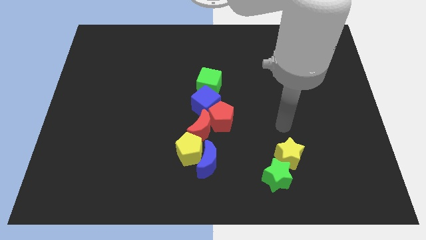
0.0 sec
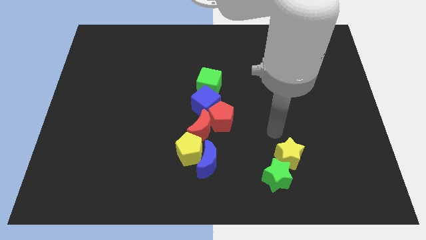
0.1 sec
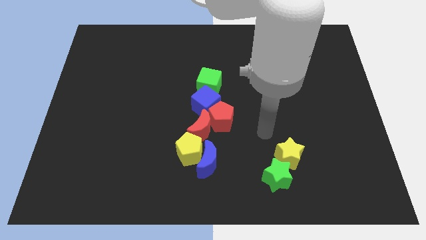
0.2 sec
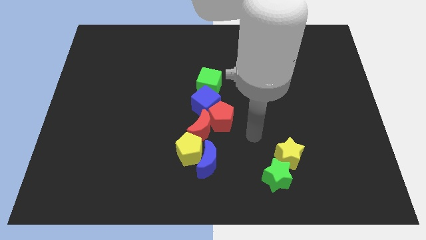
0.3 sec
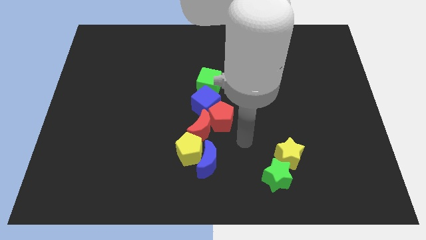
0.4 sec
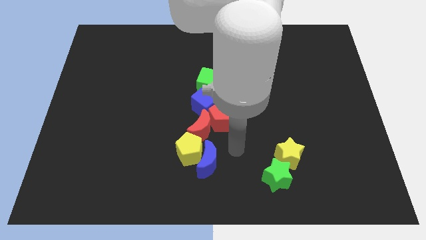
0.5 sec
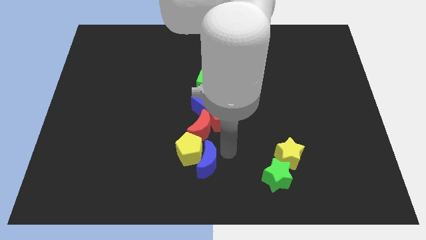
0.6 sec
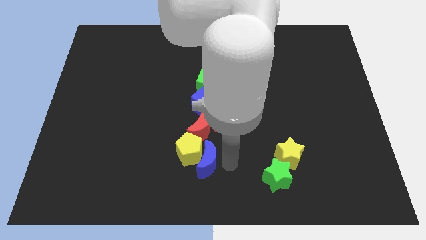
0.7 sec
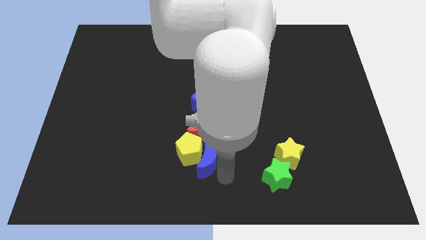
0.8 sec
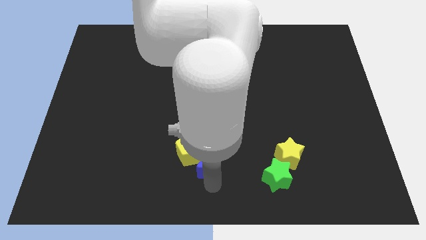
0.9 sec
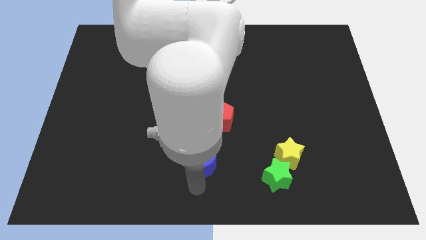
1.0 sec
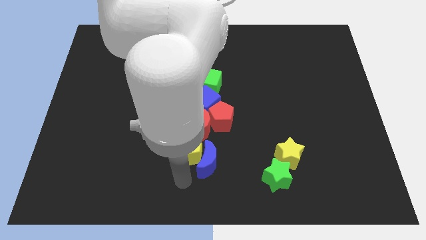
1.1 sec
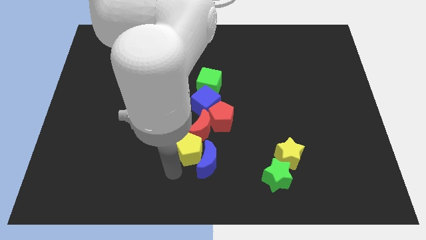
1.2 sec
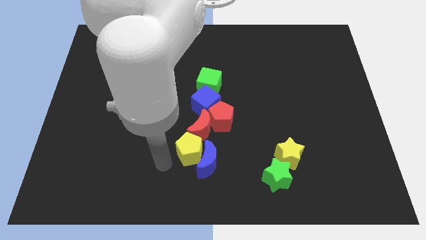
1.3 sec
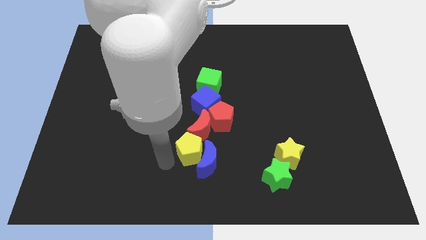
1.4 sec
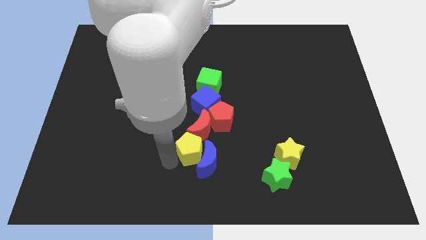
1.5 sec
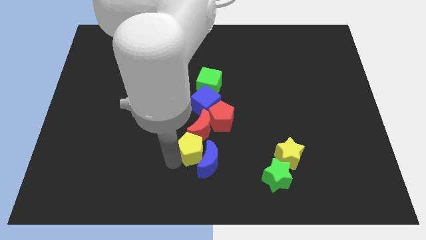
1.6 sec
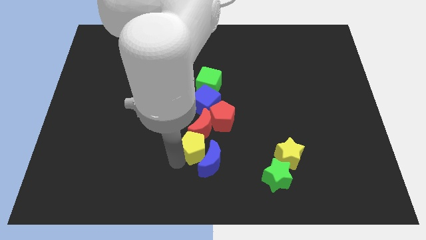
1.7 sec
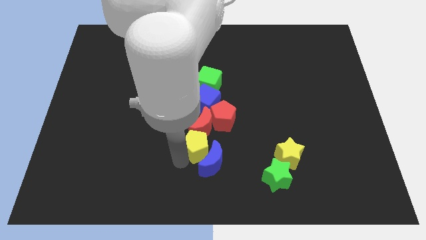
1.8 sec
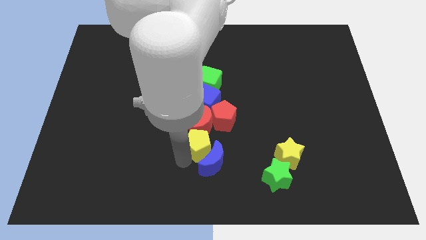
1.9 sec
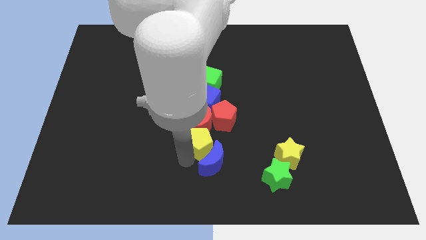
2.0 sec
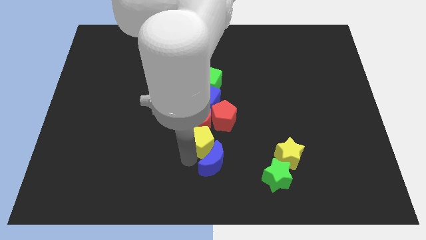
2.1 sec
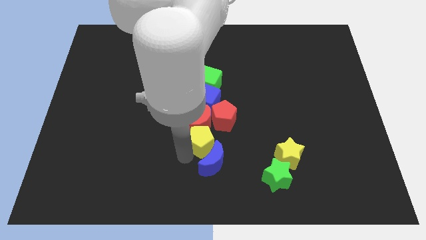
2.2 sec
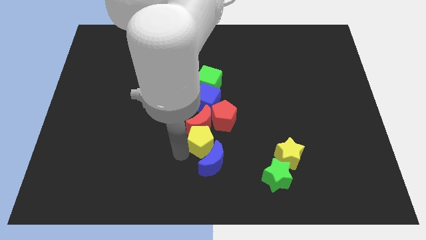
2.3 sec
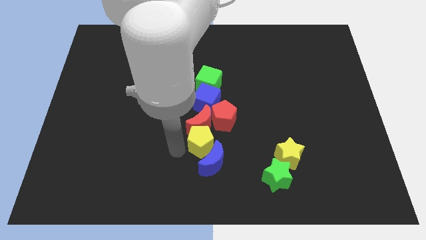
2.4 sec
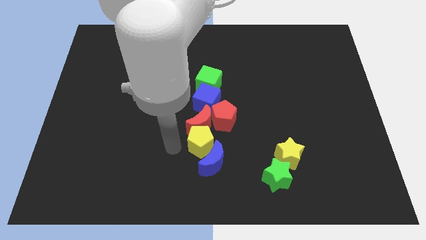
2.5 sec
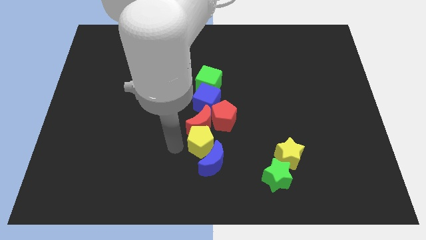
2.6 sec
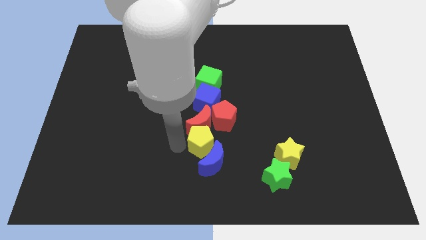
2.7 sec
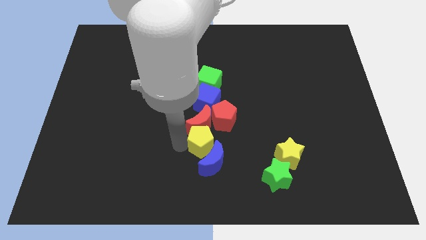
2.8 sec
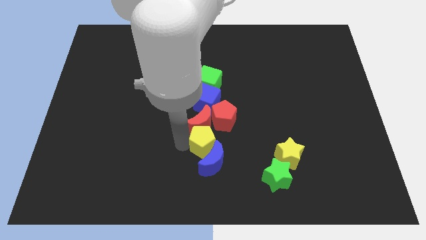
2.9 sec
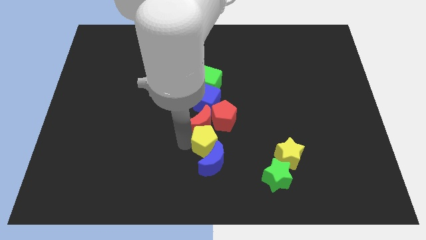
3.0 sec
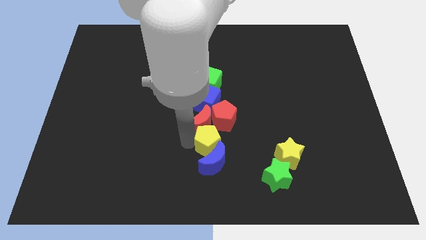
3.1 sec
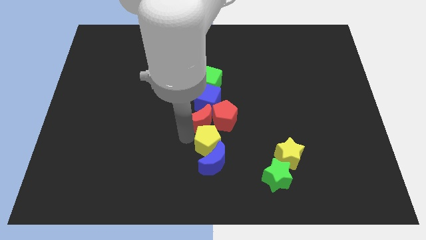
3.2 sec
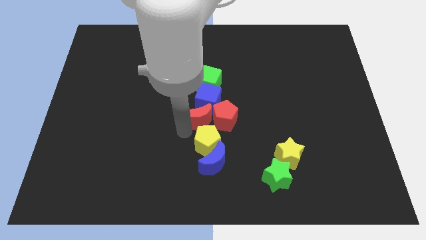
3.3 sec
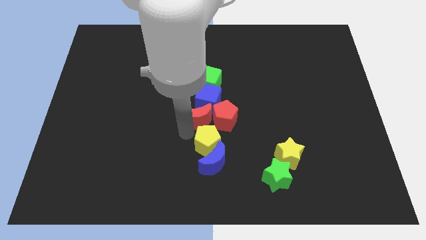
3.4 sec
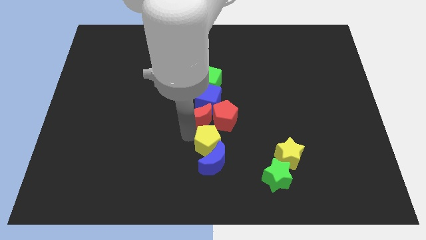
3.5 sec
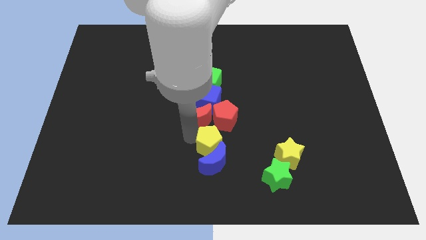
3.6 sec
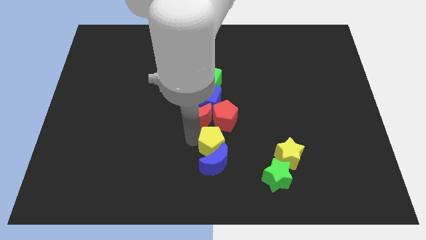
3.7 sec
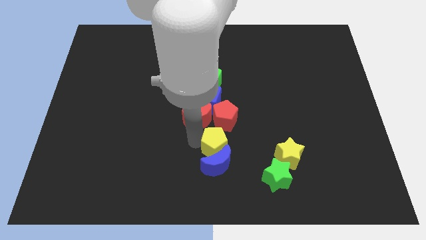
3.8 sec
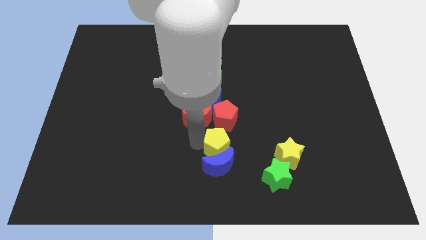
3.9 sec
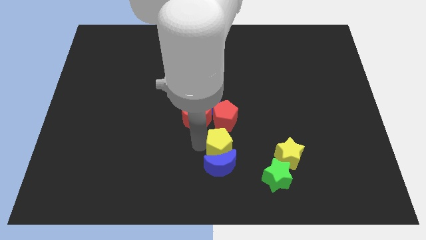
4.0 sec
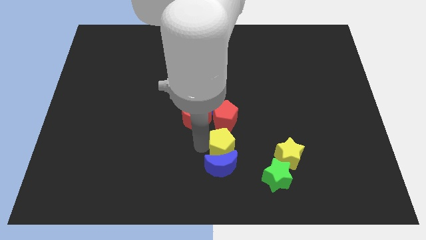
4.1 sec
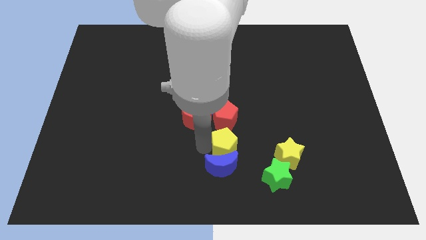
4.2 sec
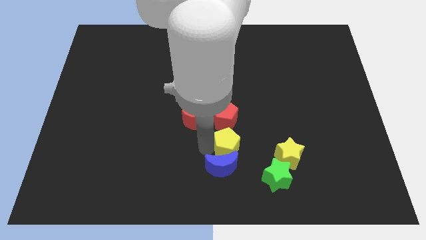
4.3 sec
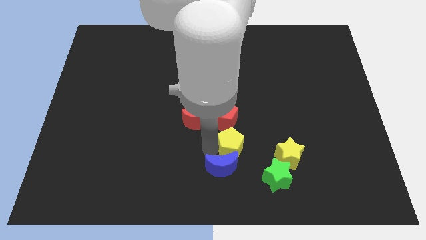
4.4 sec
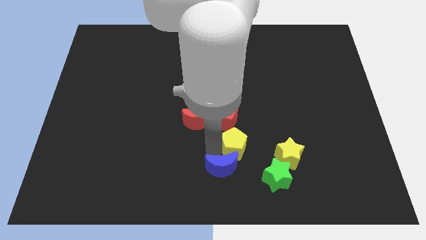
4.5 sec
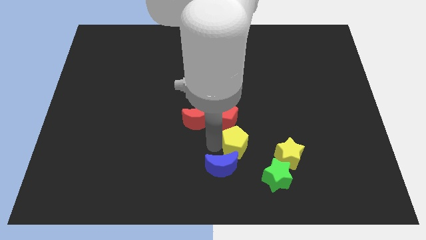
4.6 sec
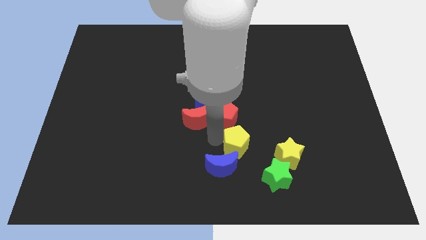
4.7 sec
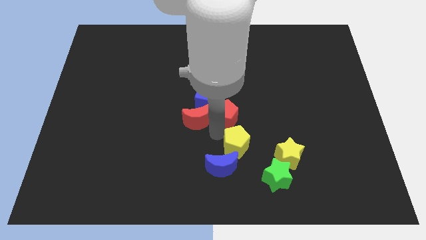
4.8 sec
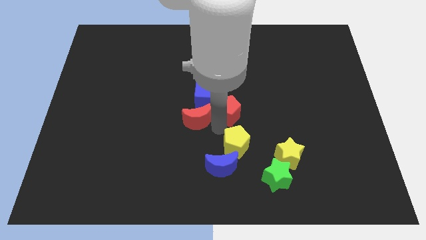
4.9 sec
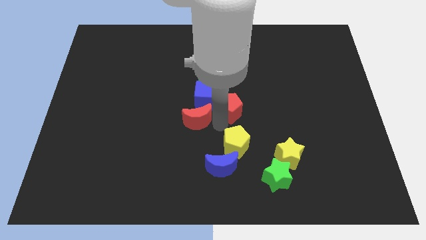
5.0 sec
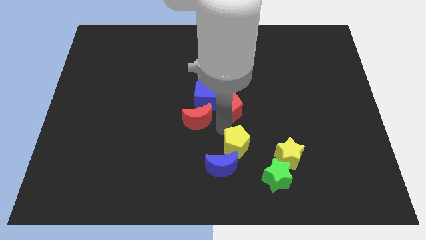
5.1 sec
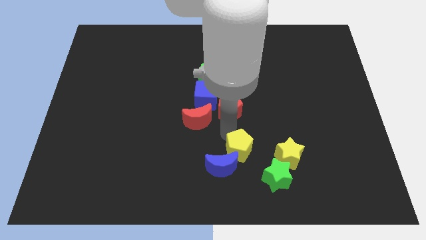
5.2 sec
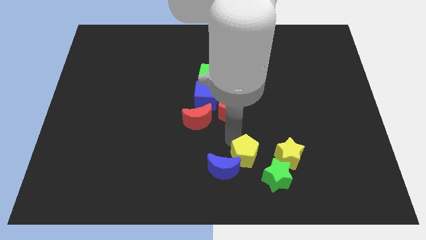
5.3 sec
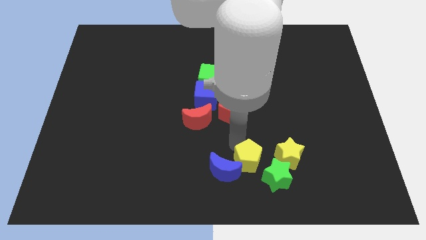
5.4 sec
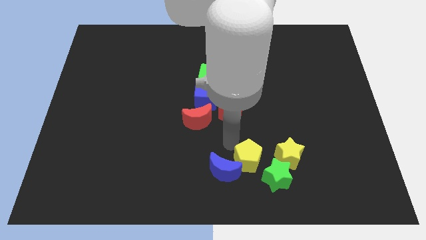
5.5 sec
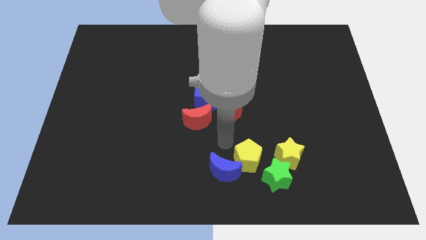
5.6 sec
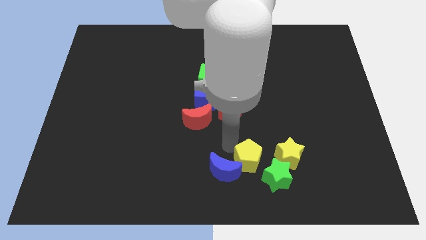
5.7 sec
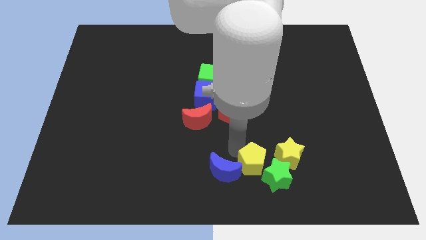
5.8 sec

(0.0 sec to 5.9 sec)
slide the yellow pentagon close to the green star

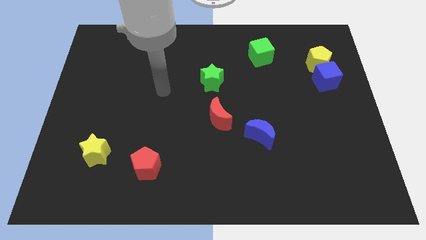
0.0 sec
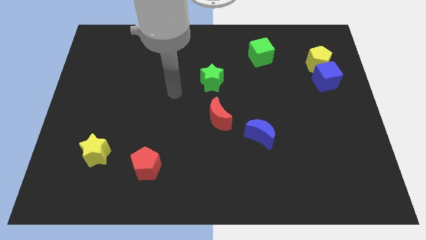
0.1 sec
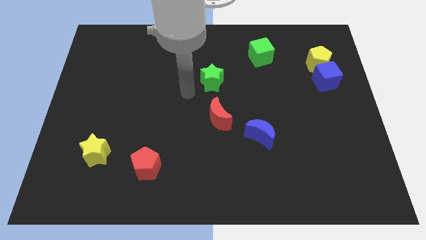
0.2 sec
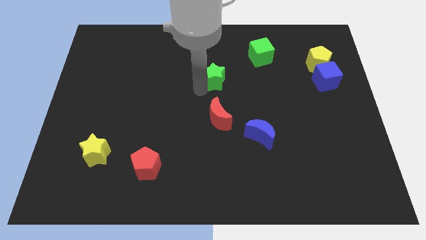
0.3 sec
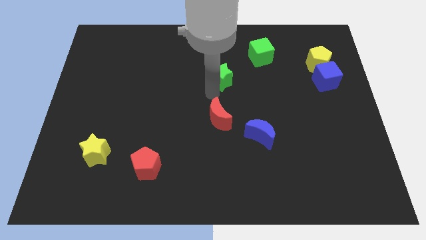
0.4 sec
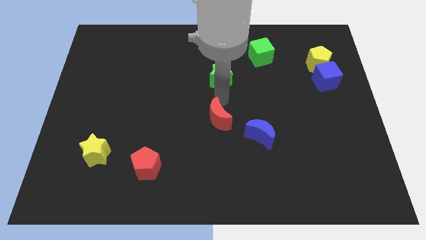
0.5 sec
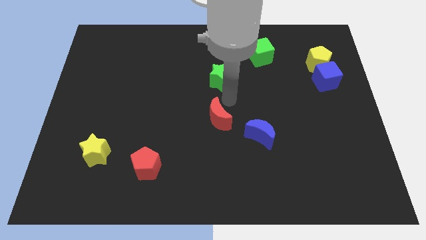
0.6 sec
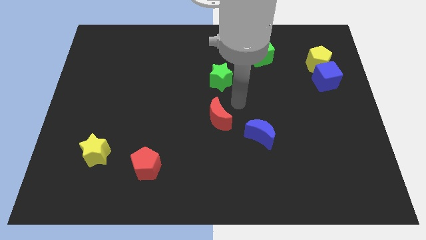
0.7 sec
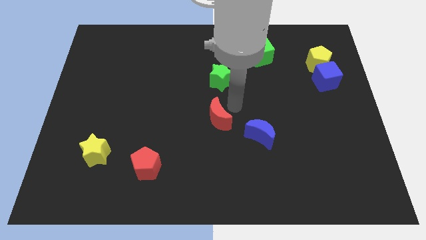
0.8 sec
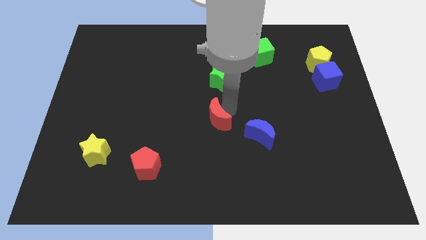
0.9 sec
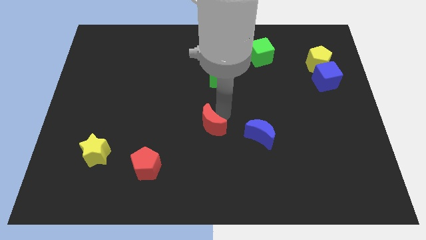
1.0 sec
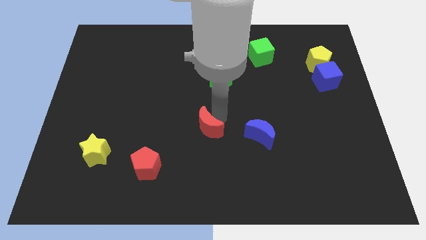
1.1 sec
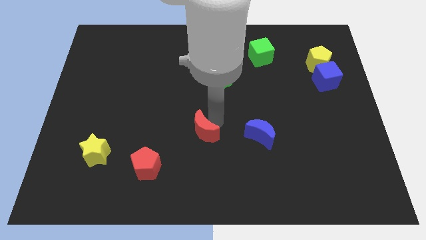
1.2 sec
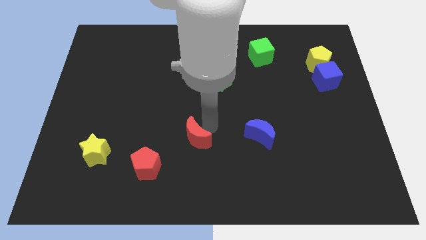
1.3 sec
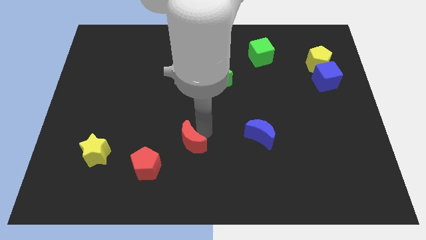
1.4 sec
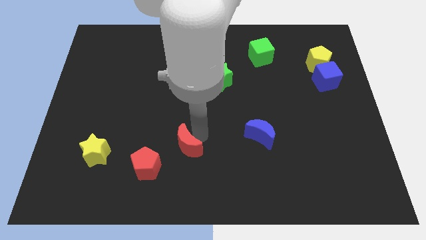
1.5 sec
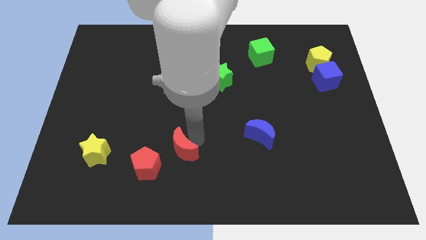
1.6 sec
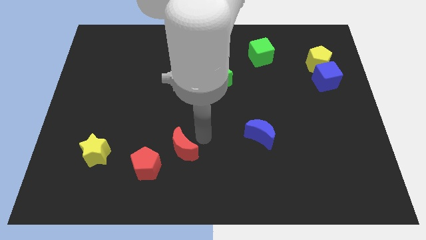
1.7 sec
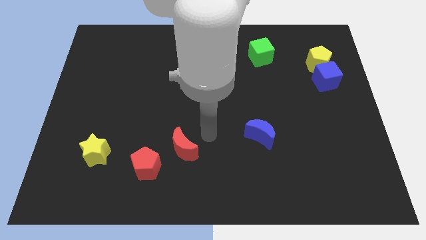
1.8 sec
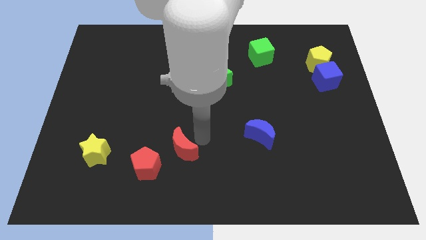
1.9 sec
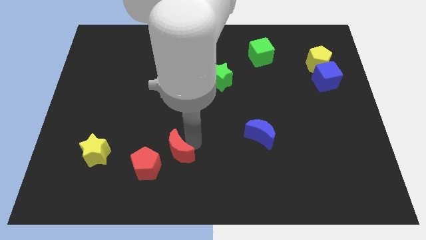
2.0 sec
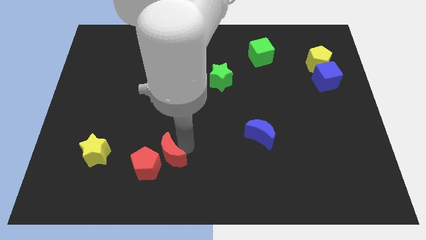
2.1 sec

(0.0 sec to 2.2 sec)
slide the red moon next to the red pentagon
